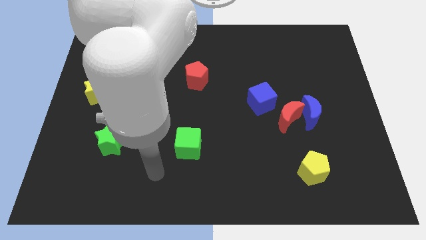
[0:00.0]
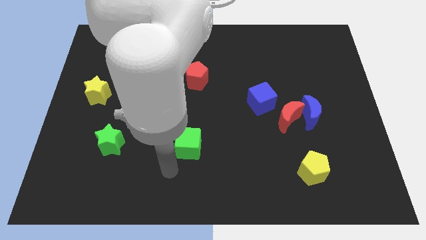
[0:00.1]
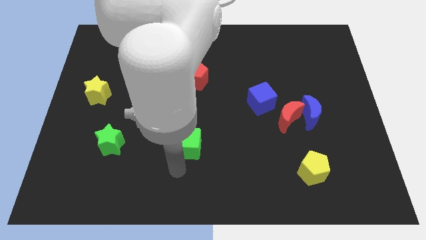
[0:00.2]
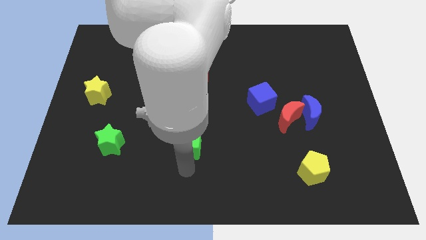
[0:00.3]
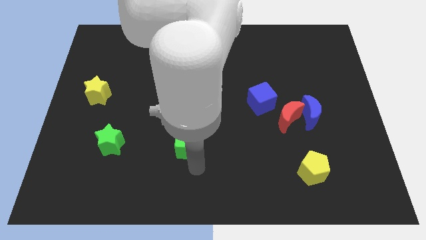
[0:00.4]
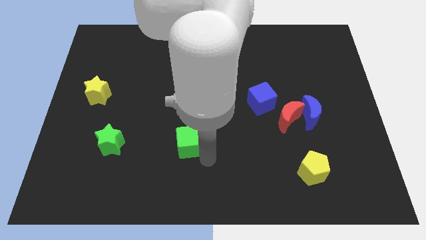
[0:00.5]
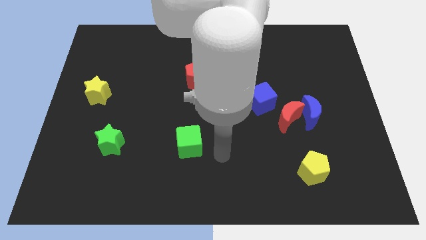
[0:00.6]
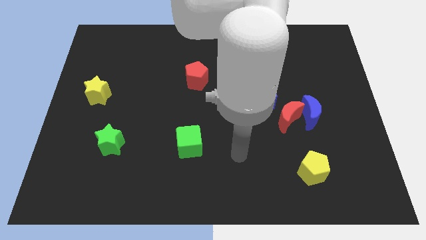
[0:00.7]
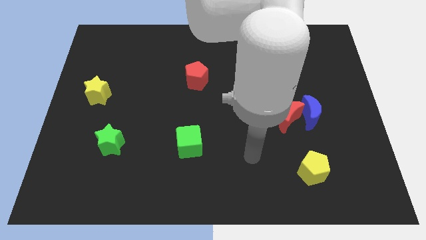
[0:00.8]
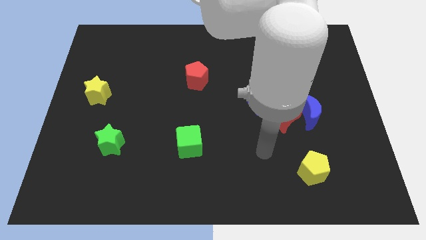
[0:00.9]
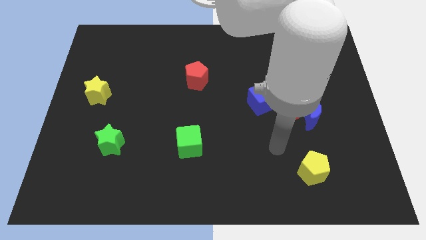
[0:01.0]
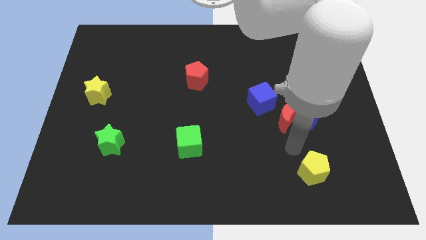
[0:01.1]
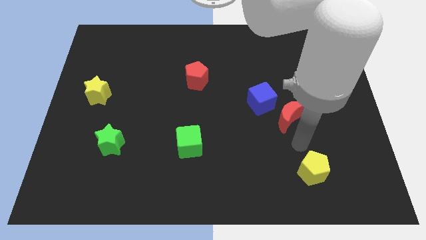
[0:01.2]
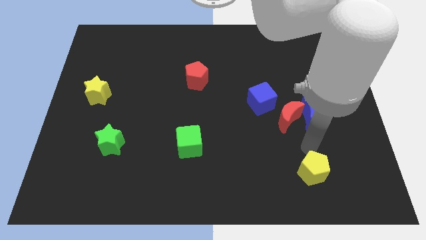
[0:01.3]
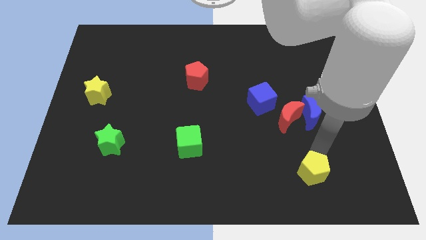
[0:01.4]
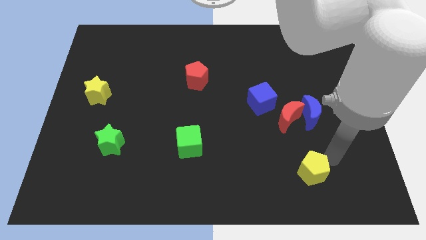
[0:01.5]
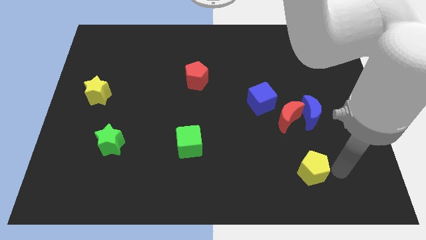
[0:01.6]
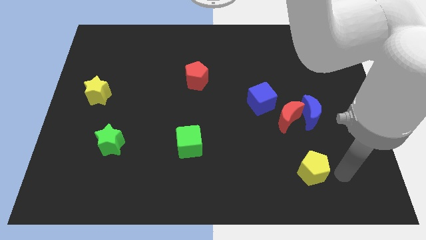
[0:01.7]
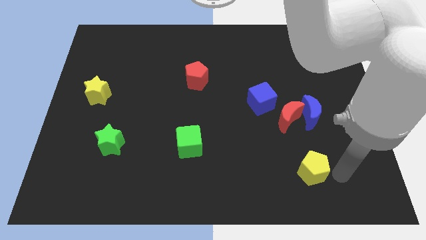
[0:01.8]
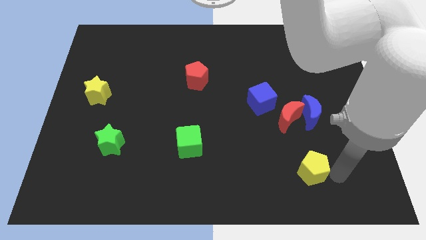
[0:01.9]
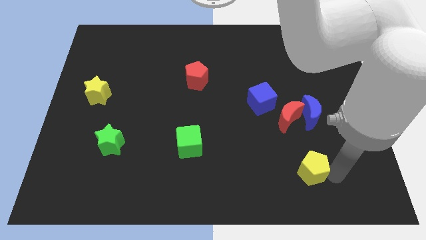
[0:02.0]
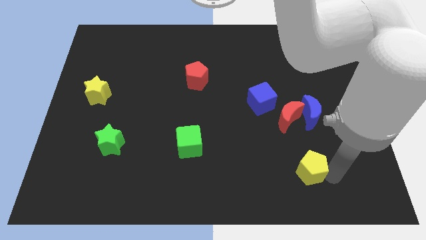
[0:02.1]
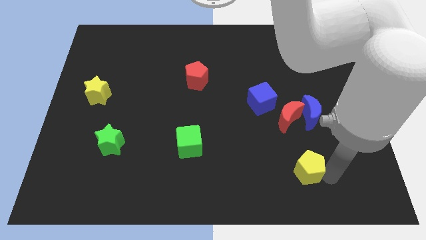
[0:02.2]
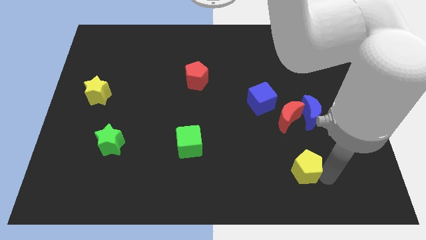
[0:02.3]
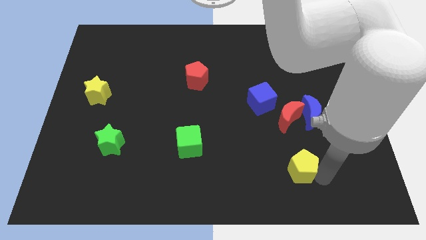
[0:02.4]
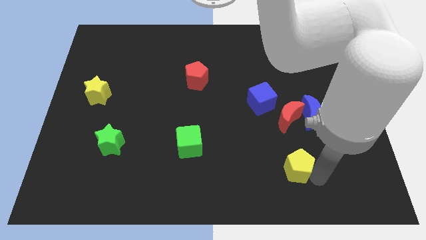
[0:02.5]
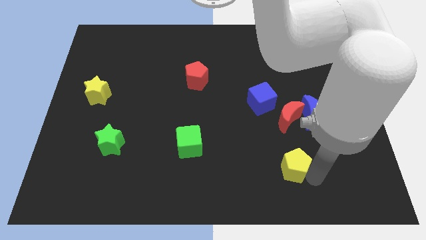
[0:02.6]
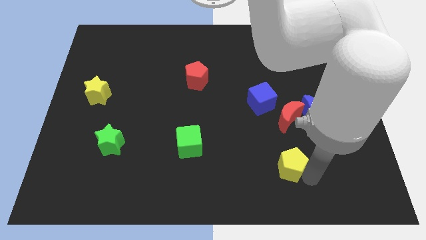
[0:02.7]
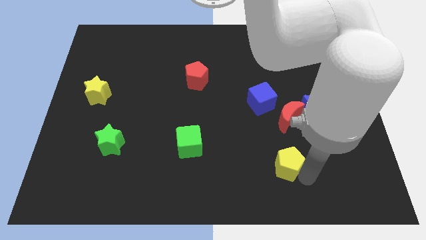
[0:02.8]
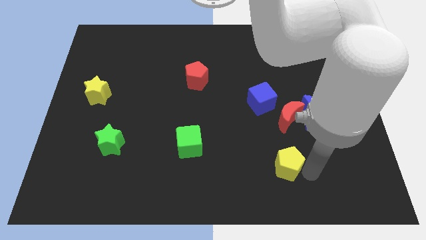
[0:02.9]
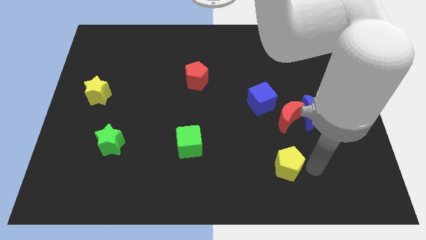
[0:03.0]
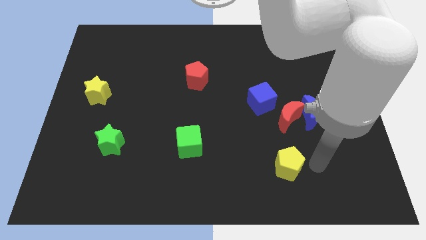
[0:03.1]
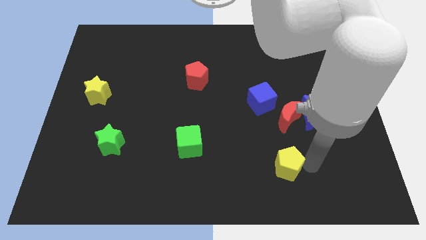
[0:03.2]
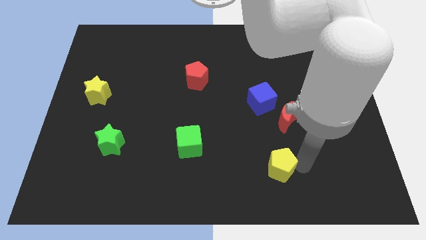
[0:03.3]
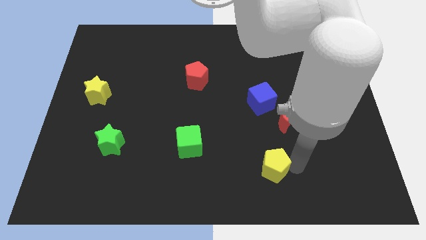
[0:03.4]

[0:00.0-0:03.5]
slightly move the yellow pentagon to the left

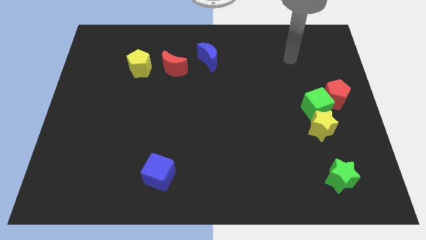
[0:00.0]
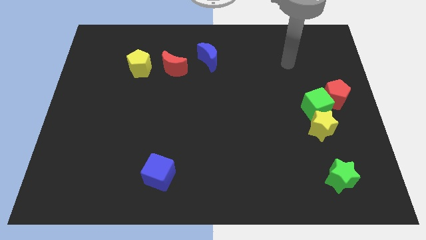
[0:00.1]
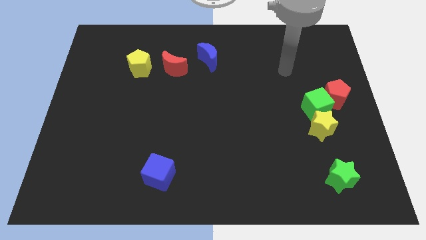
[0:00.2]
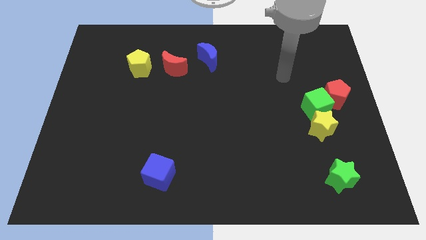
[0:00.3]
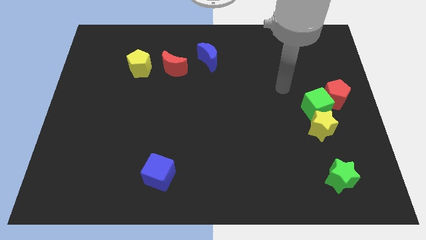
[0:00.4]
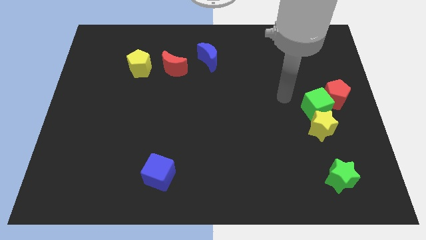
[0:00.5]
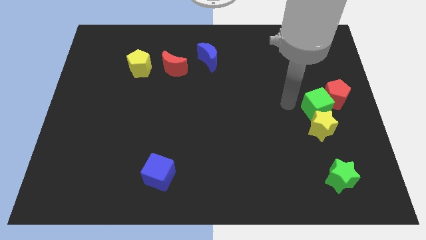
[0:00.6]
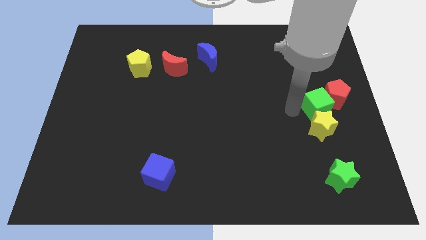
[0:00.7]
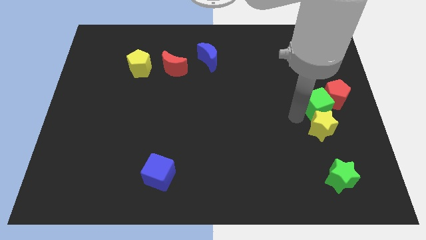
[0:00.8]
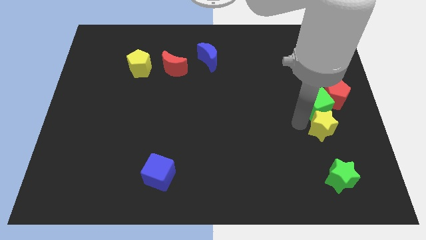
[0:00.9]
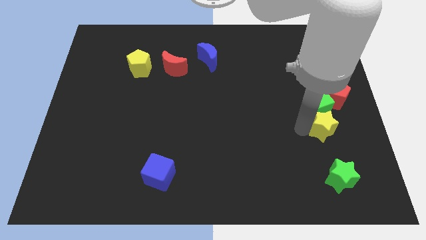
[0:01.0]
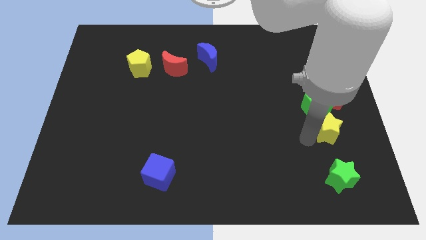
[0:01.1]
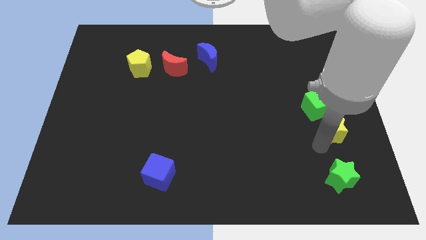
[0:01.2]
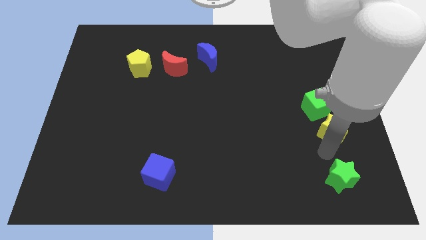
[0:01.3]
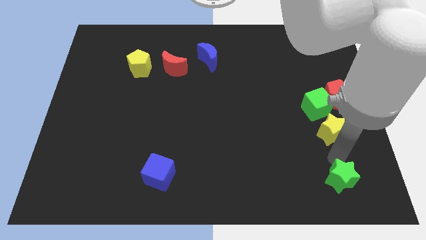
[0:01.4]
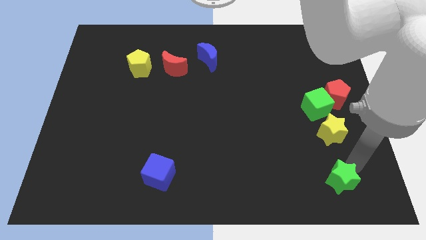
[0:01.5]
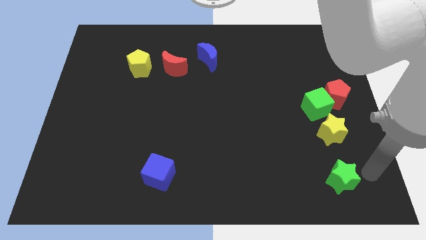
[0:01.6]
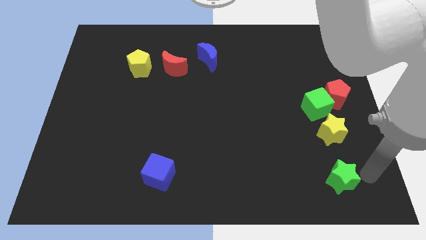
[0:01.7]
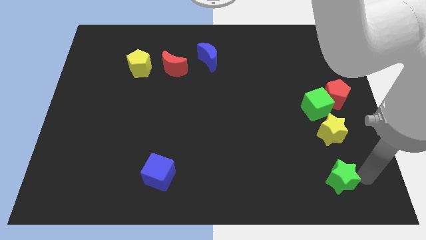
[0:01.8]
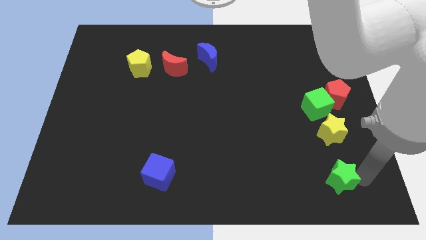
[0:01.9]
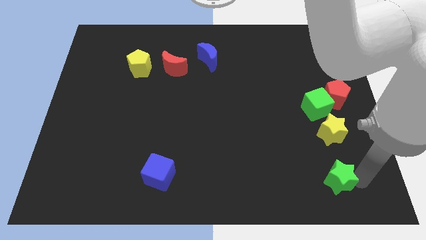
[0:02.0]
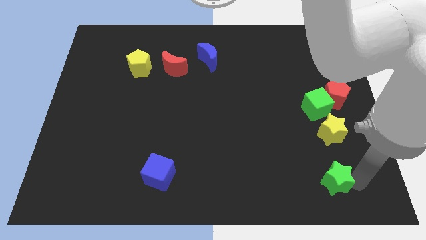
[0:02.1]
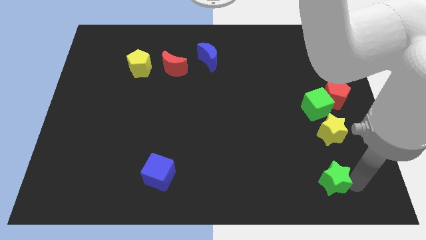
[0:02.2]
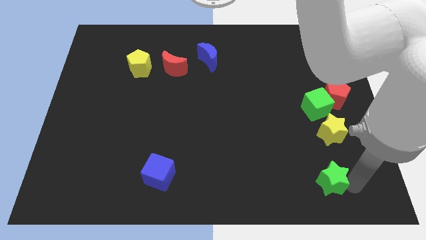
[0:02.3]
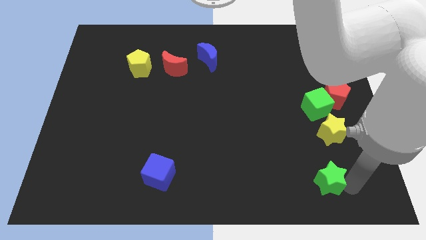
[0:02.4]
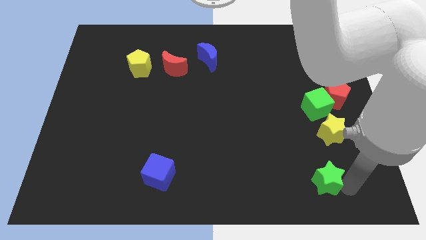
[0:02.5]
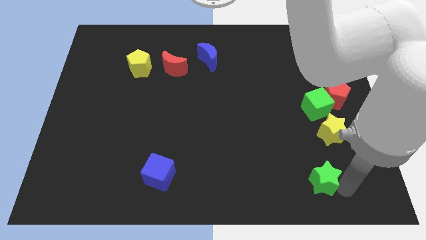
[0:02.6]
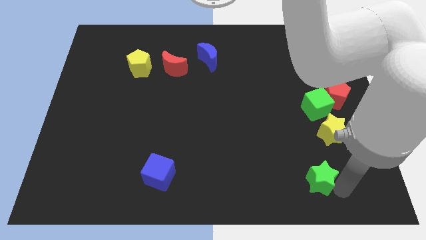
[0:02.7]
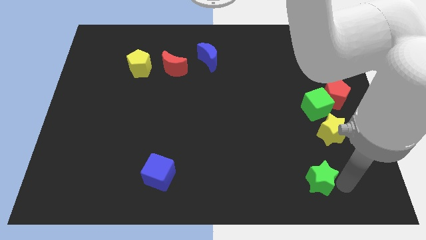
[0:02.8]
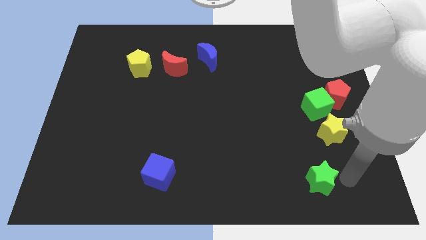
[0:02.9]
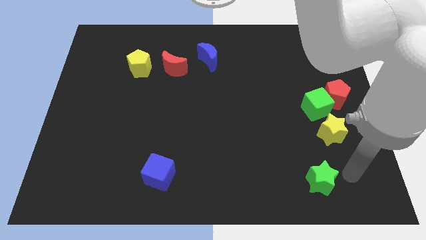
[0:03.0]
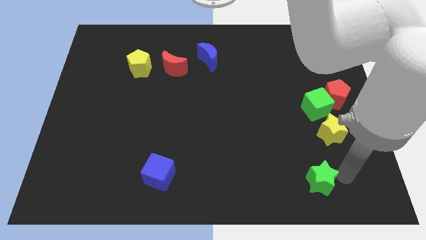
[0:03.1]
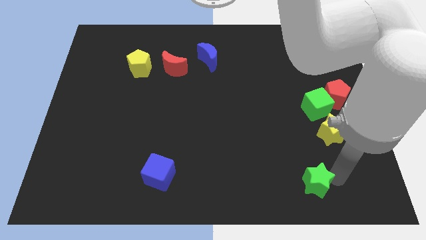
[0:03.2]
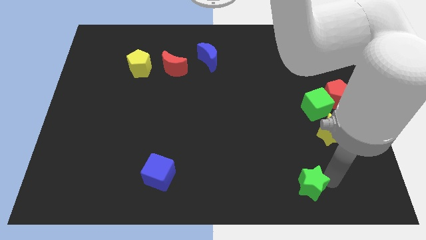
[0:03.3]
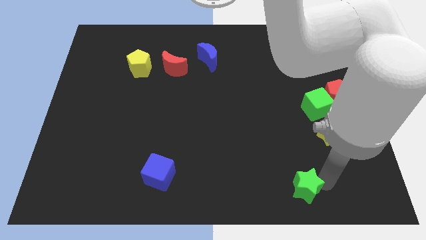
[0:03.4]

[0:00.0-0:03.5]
slide the green star a bit to the left

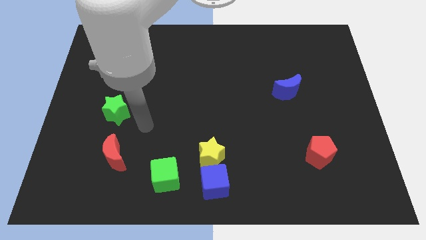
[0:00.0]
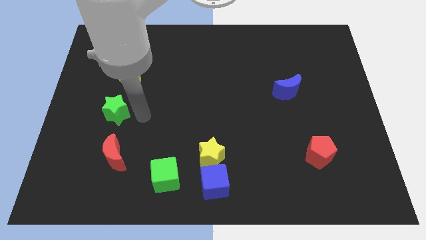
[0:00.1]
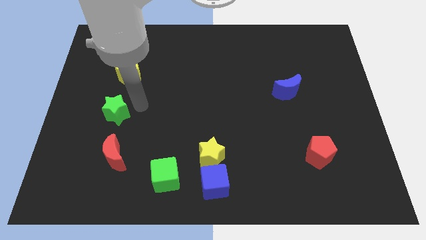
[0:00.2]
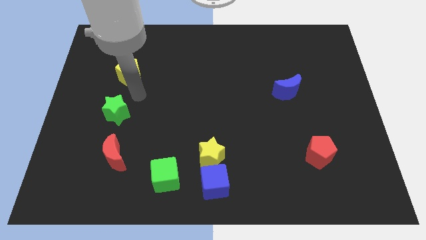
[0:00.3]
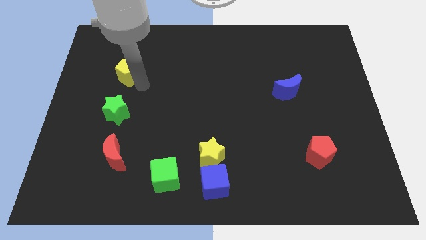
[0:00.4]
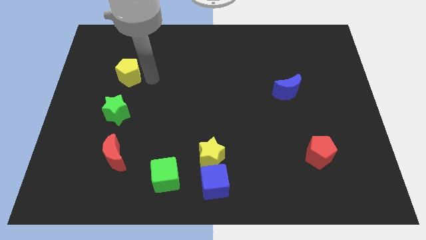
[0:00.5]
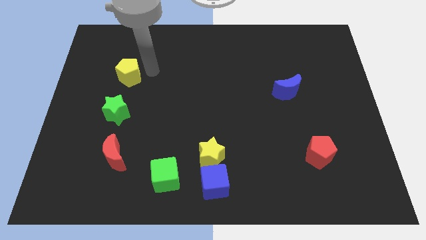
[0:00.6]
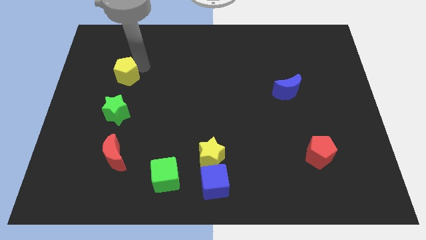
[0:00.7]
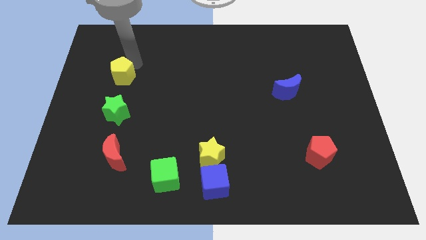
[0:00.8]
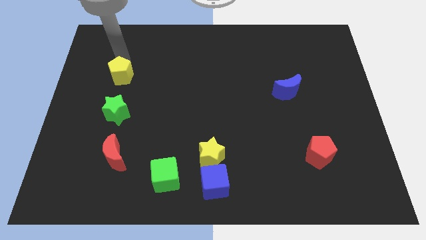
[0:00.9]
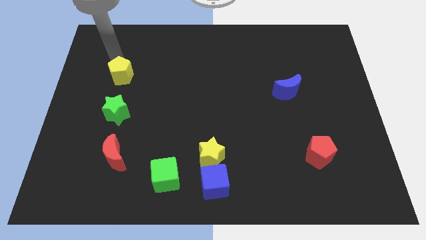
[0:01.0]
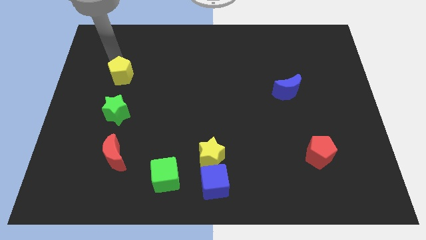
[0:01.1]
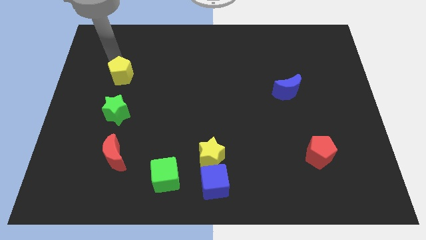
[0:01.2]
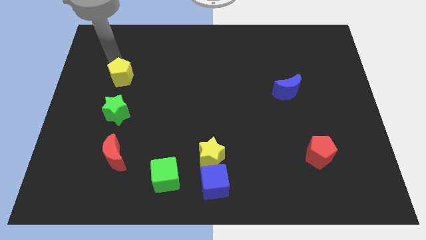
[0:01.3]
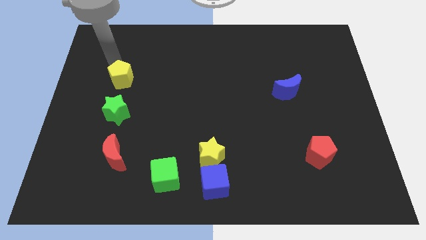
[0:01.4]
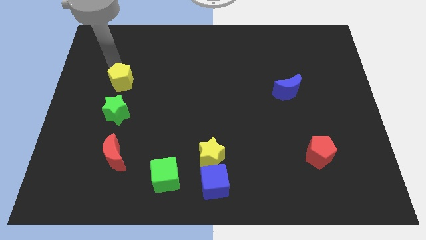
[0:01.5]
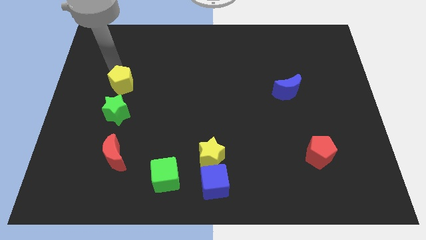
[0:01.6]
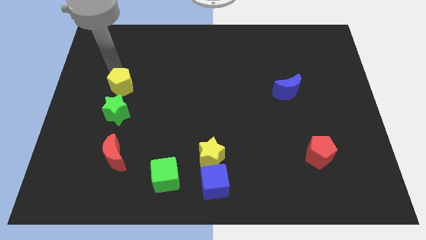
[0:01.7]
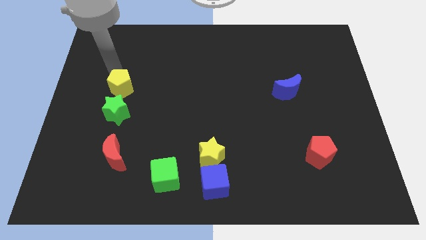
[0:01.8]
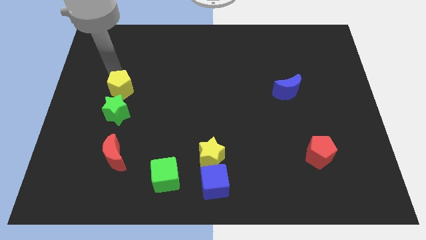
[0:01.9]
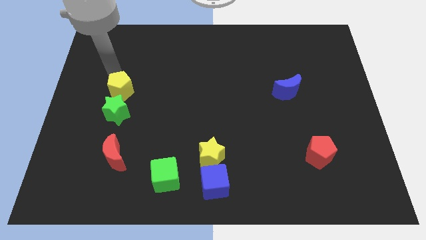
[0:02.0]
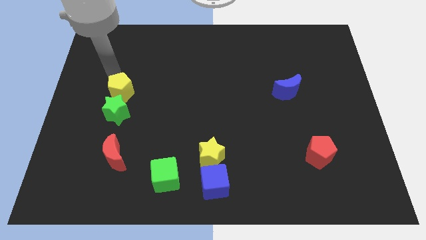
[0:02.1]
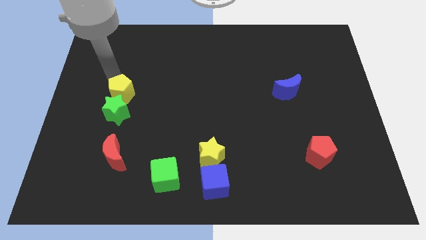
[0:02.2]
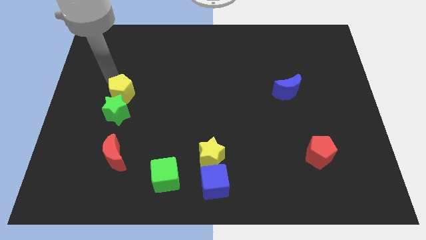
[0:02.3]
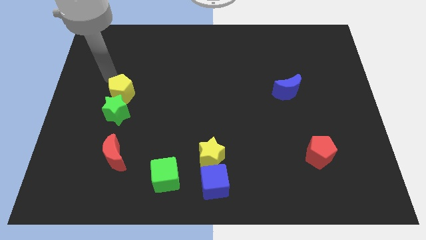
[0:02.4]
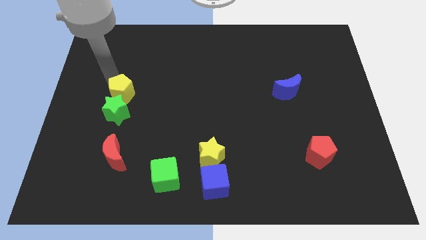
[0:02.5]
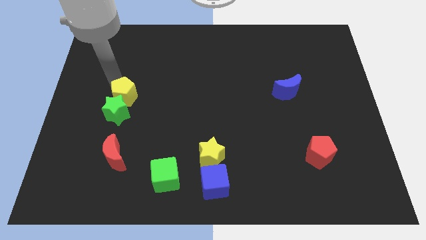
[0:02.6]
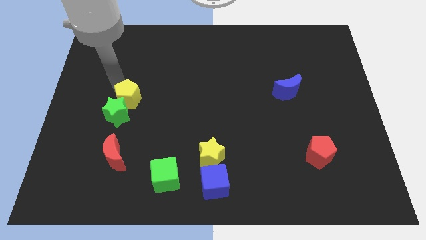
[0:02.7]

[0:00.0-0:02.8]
slightly slide the yellow pentagon downwards
